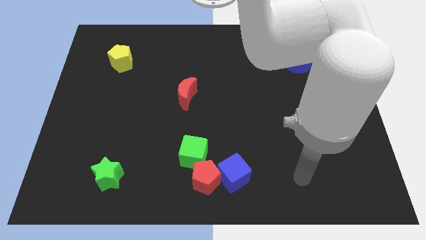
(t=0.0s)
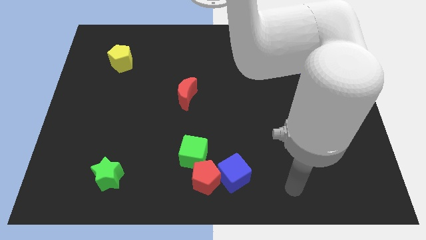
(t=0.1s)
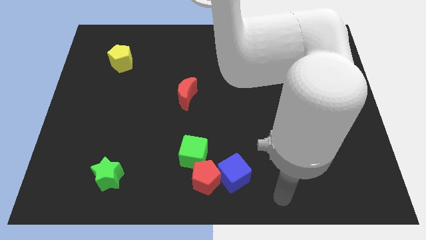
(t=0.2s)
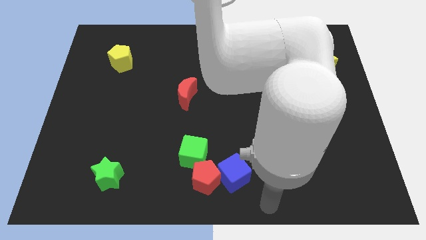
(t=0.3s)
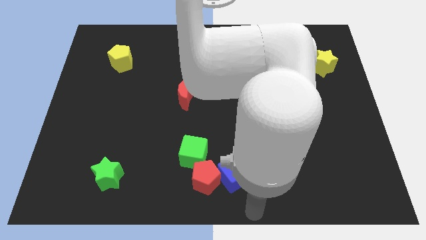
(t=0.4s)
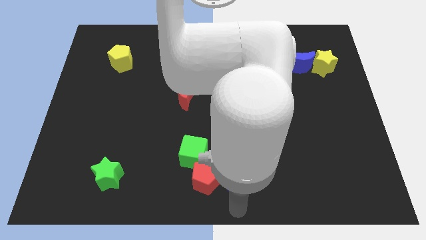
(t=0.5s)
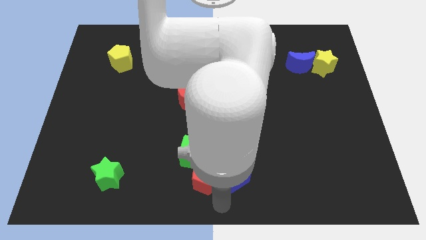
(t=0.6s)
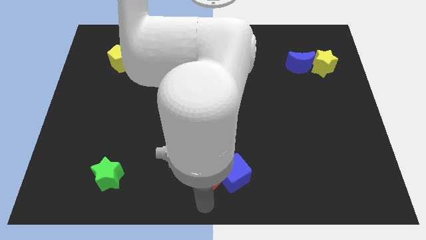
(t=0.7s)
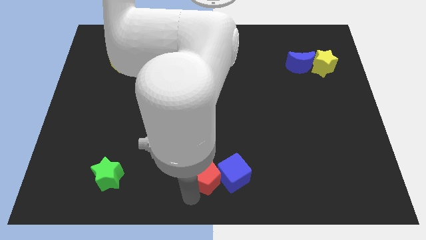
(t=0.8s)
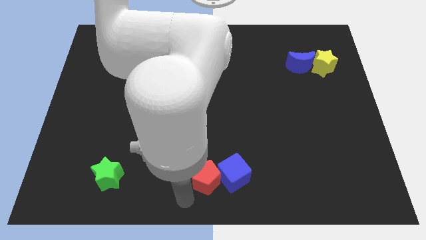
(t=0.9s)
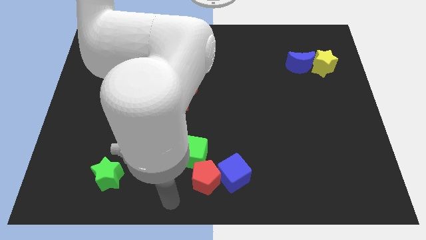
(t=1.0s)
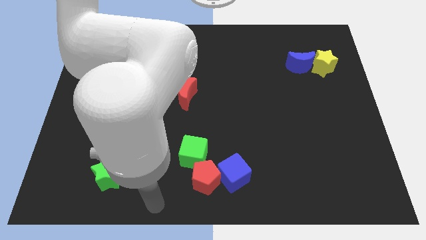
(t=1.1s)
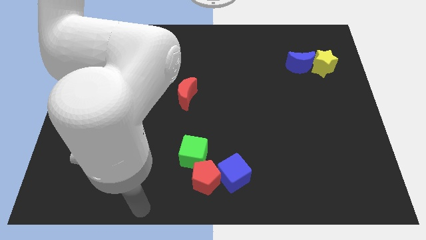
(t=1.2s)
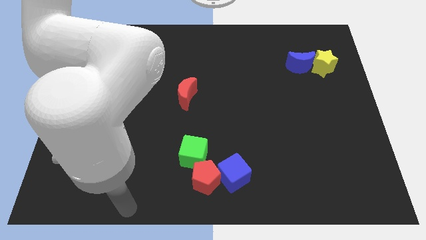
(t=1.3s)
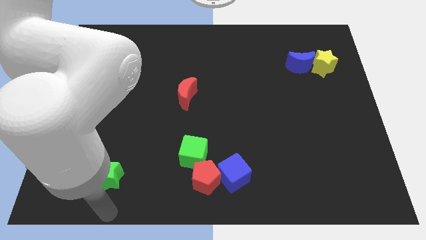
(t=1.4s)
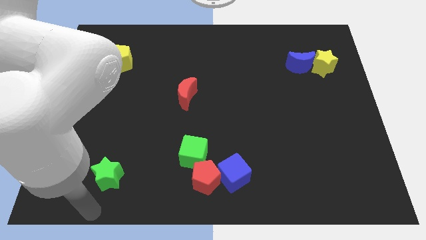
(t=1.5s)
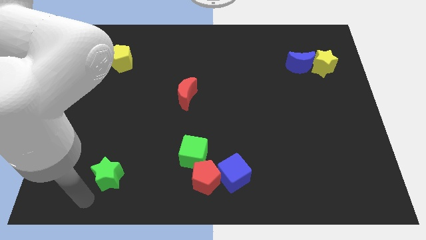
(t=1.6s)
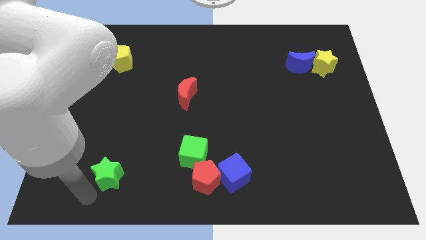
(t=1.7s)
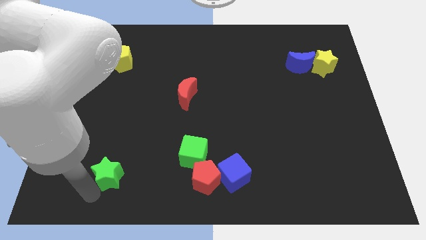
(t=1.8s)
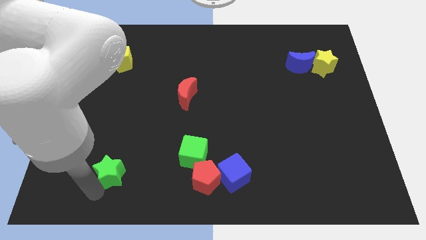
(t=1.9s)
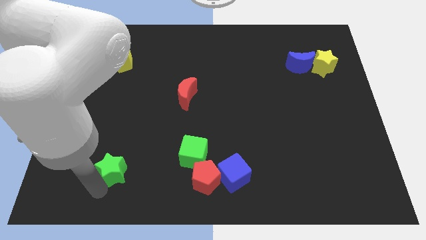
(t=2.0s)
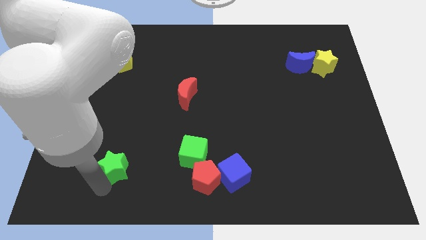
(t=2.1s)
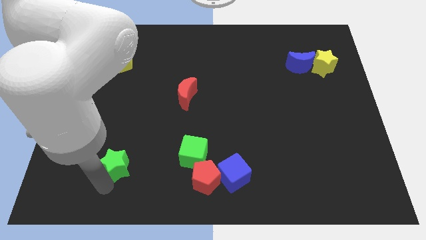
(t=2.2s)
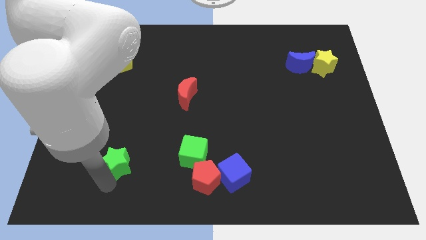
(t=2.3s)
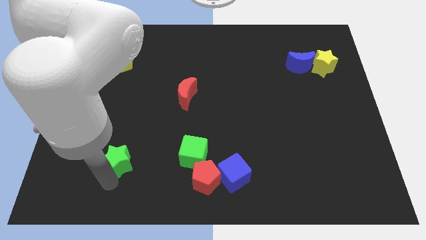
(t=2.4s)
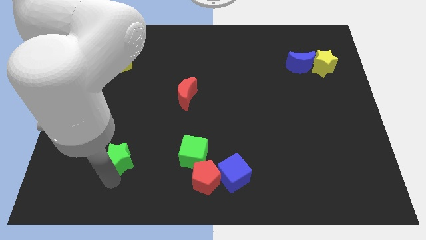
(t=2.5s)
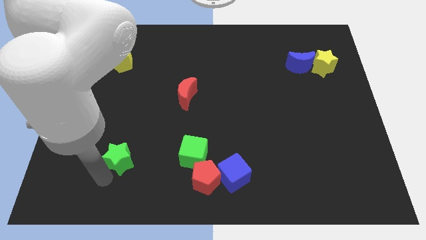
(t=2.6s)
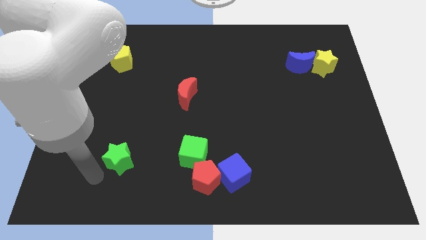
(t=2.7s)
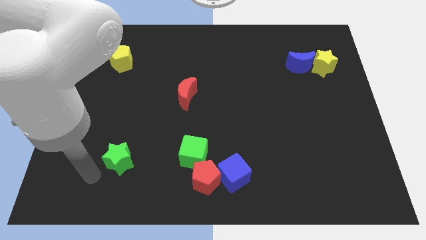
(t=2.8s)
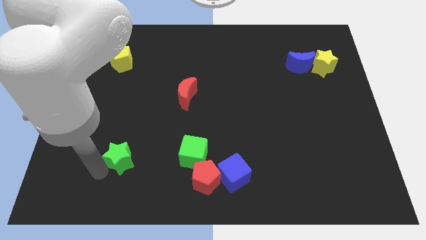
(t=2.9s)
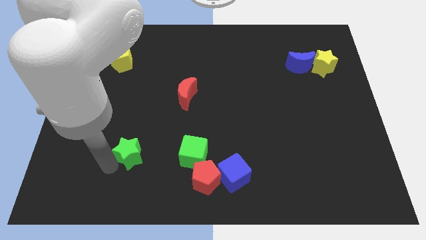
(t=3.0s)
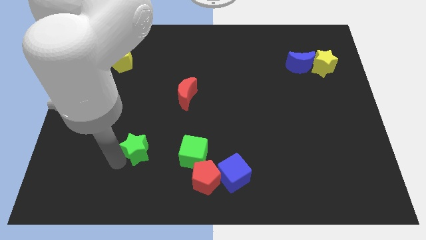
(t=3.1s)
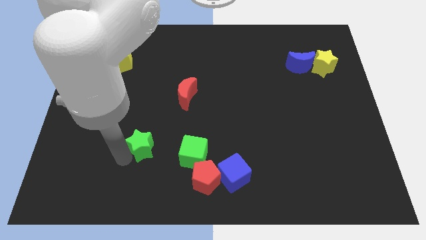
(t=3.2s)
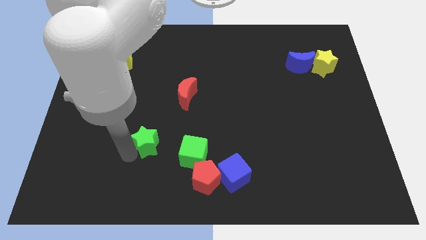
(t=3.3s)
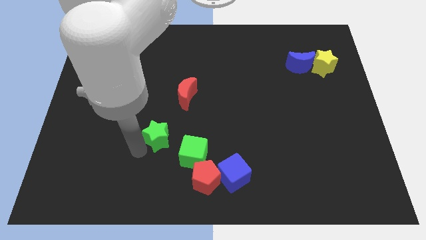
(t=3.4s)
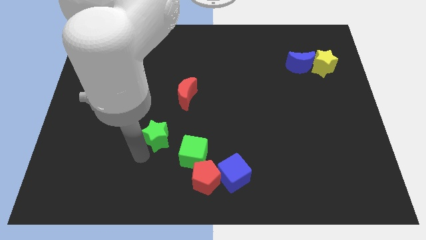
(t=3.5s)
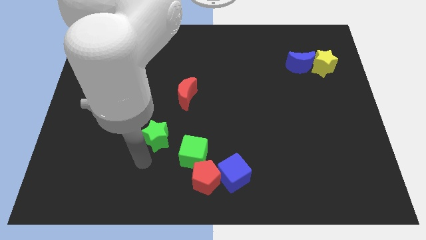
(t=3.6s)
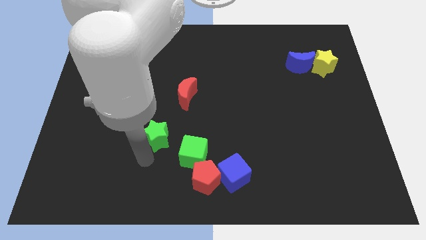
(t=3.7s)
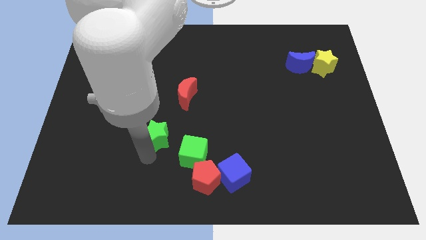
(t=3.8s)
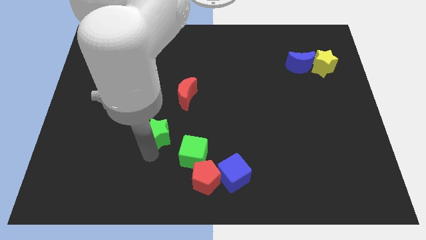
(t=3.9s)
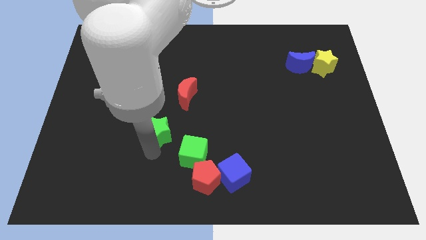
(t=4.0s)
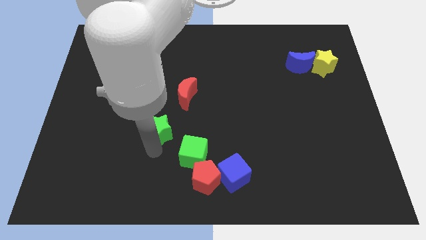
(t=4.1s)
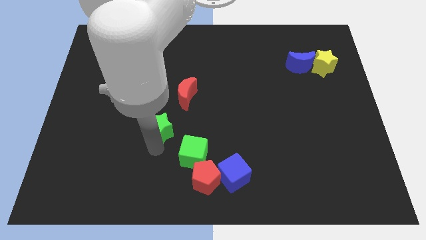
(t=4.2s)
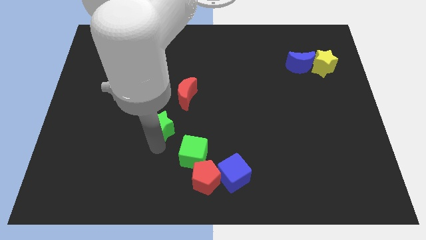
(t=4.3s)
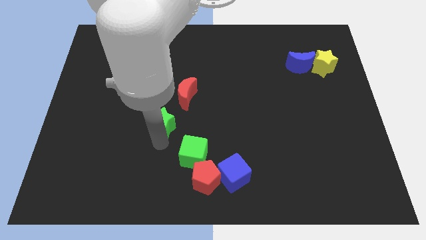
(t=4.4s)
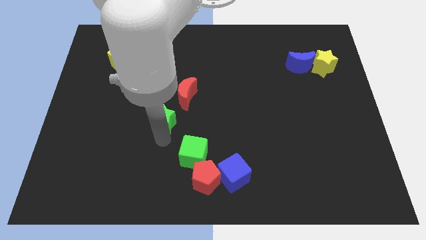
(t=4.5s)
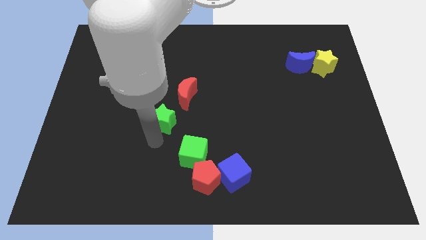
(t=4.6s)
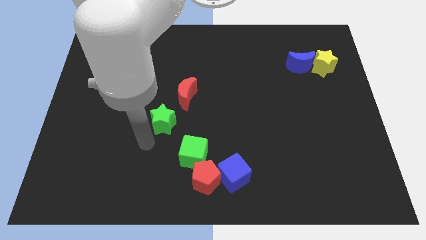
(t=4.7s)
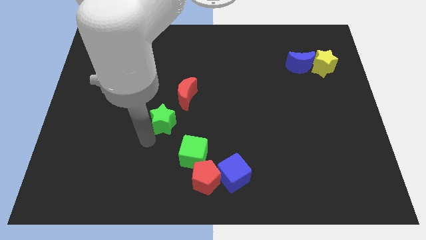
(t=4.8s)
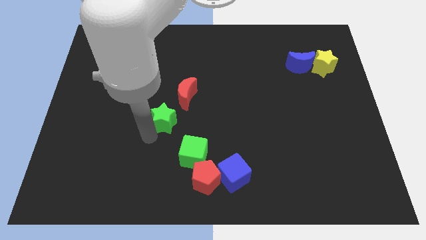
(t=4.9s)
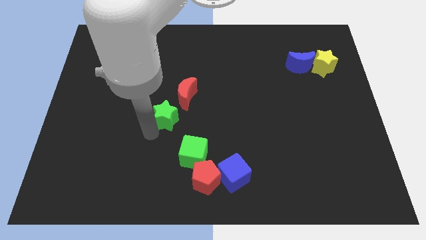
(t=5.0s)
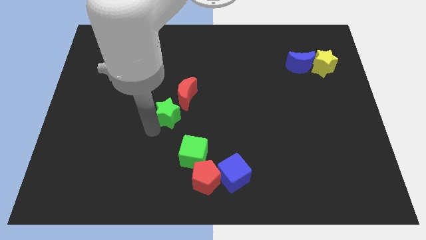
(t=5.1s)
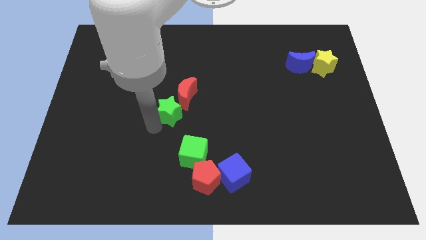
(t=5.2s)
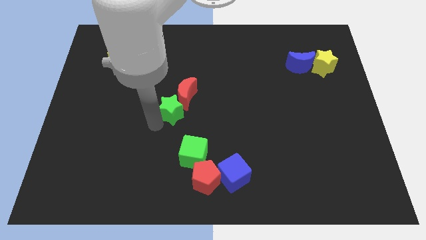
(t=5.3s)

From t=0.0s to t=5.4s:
put the green star close to the red moon
